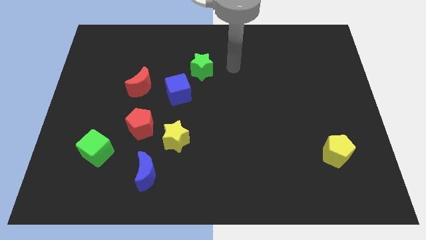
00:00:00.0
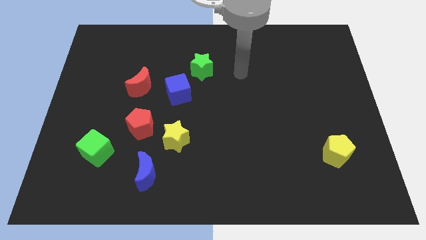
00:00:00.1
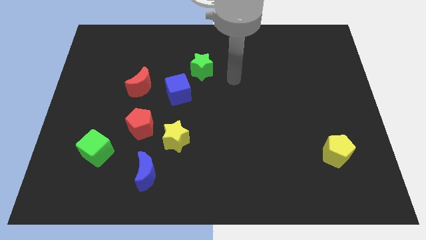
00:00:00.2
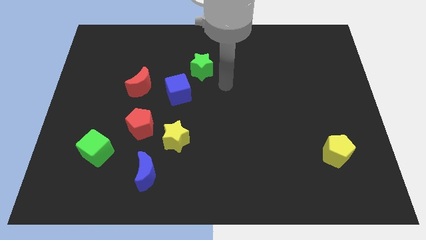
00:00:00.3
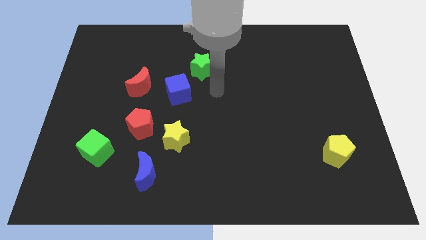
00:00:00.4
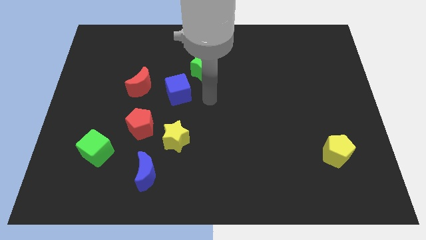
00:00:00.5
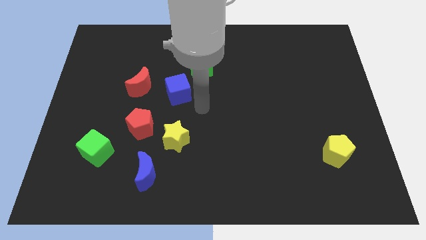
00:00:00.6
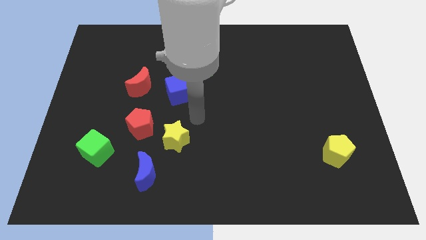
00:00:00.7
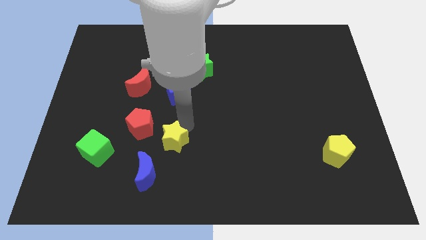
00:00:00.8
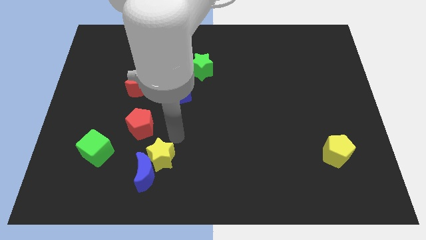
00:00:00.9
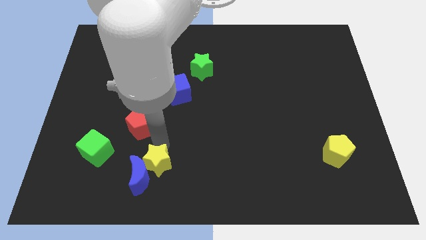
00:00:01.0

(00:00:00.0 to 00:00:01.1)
separate the red pentagon from the yellow star

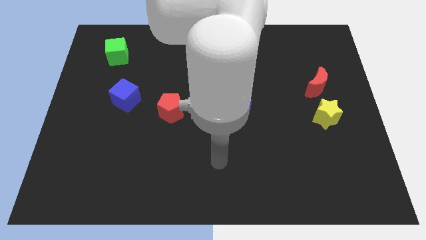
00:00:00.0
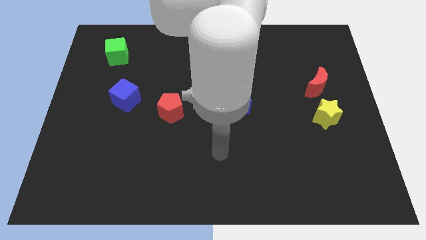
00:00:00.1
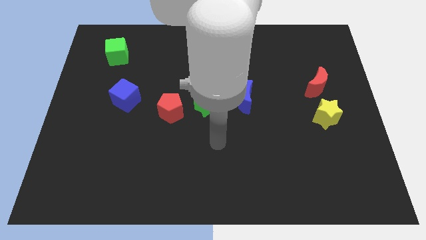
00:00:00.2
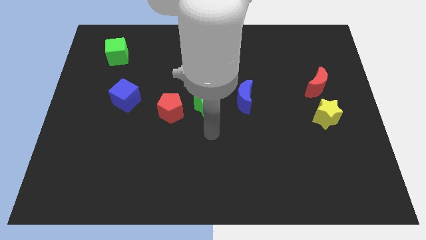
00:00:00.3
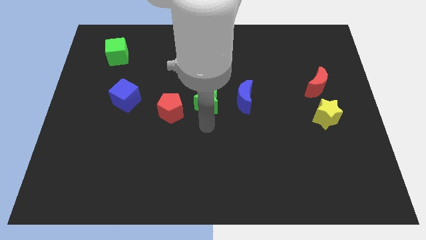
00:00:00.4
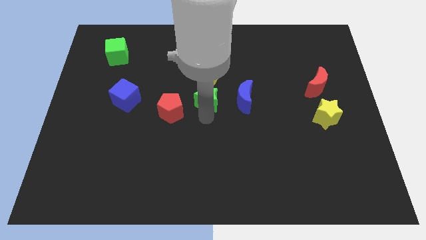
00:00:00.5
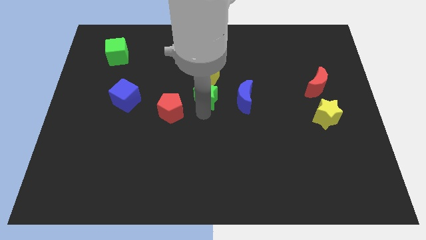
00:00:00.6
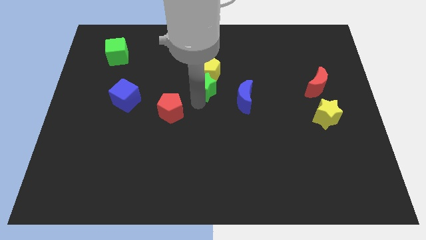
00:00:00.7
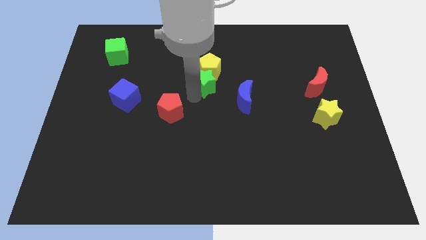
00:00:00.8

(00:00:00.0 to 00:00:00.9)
pull the red pentagon apart from the green star

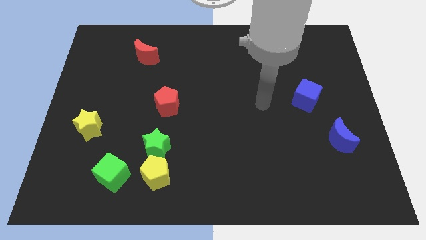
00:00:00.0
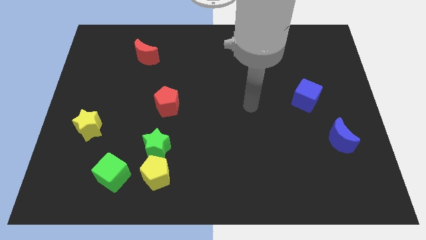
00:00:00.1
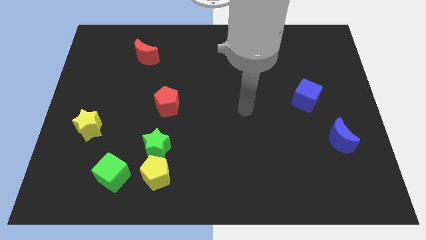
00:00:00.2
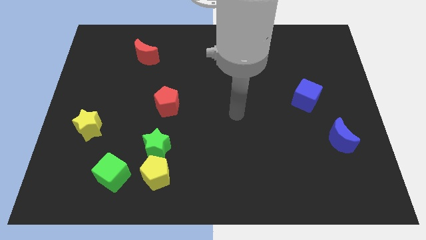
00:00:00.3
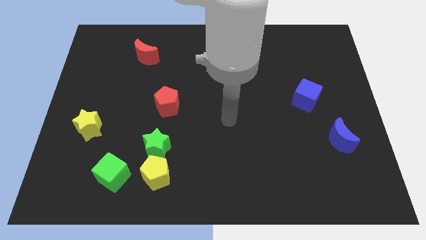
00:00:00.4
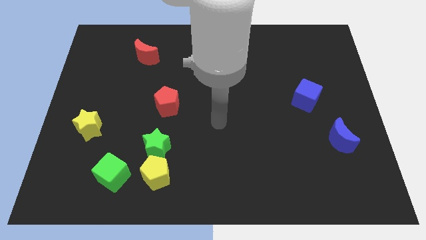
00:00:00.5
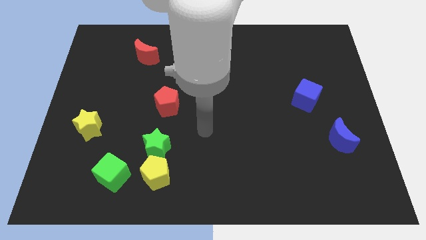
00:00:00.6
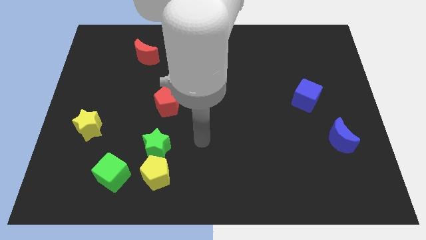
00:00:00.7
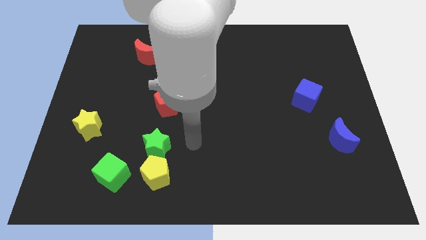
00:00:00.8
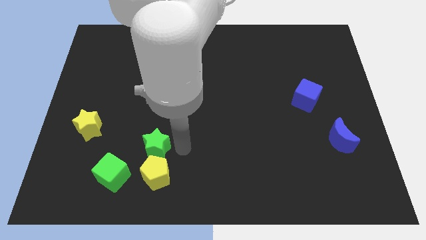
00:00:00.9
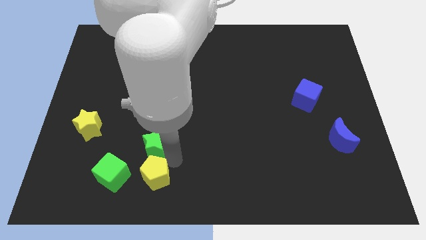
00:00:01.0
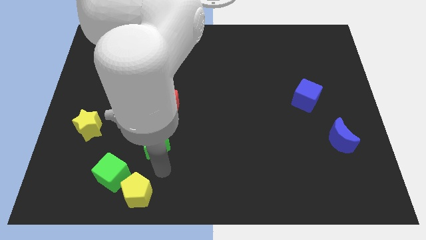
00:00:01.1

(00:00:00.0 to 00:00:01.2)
separate the green star from the yellow pentagon

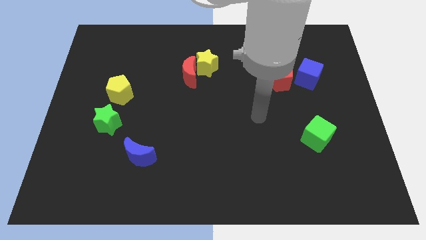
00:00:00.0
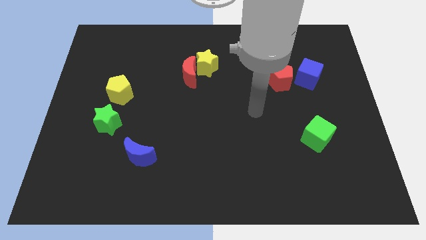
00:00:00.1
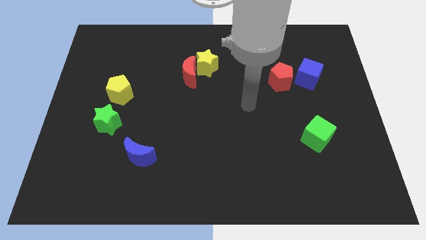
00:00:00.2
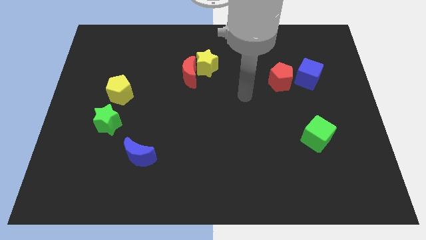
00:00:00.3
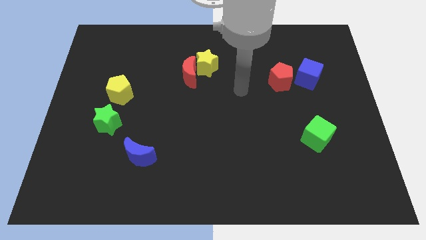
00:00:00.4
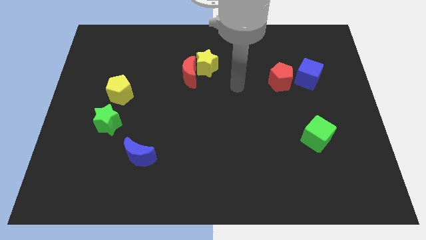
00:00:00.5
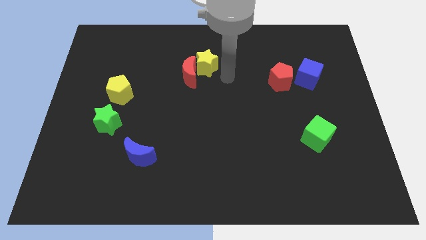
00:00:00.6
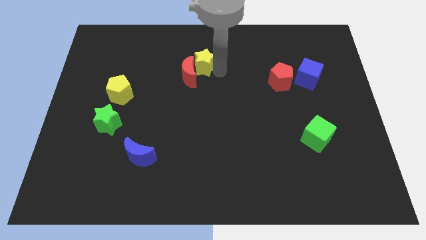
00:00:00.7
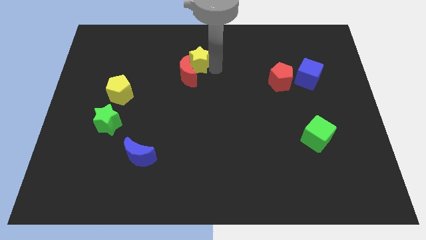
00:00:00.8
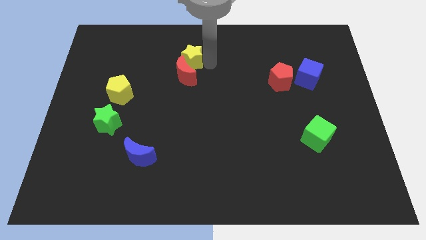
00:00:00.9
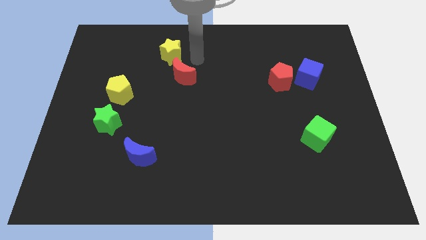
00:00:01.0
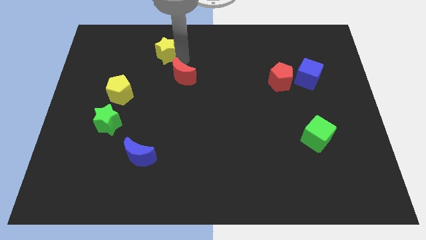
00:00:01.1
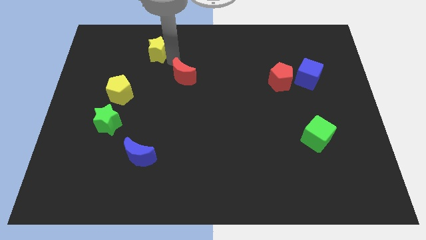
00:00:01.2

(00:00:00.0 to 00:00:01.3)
separate the red moon from the yellow star

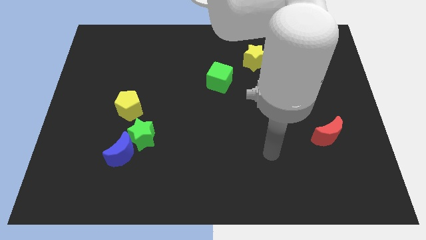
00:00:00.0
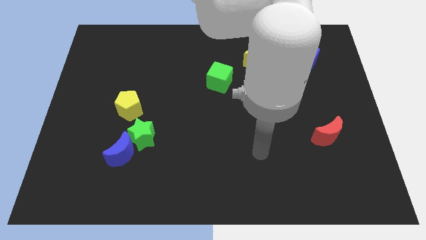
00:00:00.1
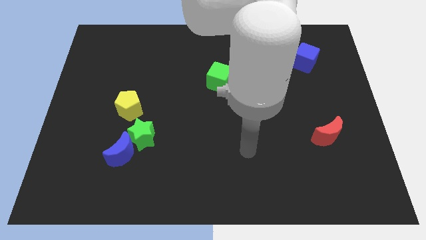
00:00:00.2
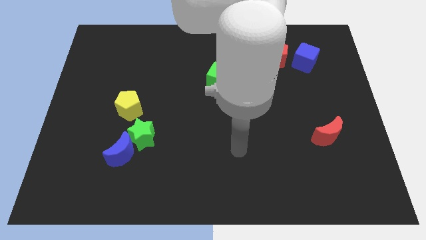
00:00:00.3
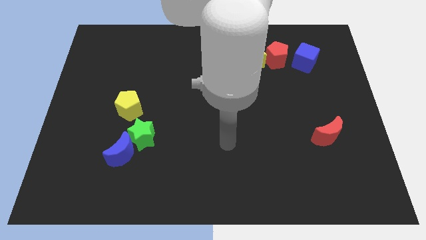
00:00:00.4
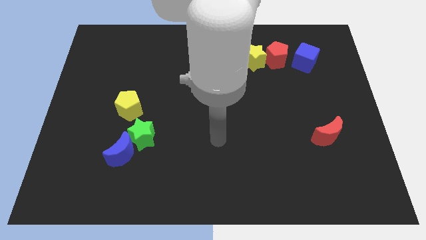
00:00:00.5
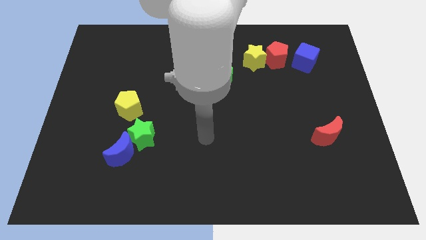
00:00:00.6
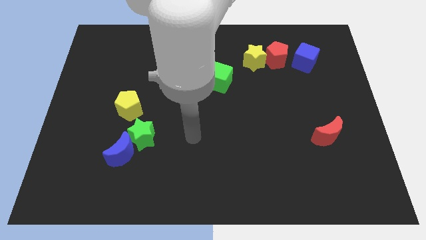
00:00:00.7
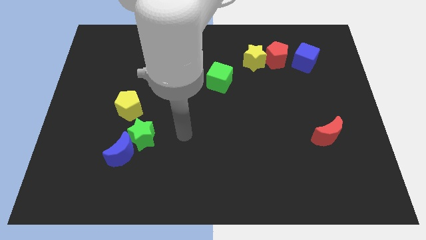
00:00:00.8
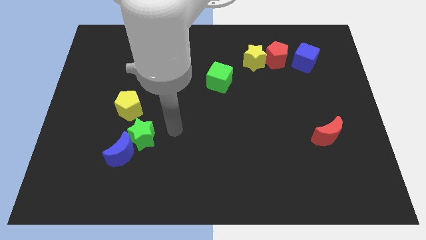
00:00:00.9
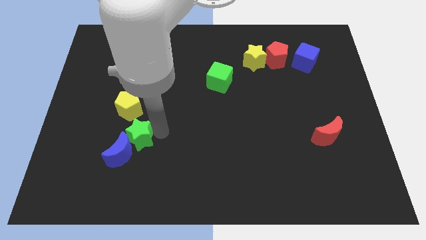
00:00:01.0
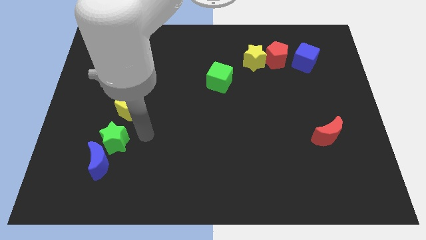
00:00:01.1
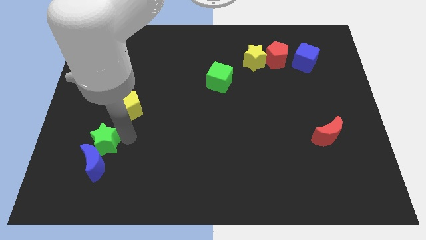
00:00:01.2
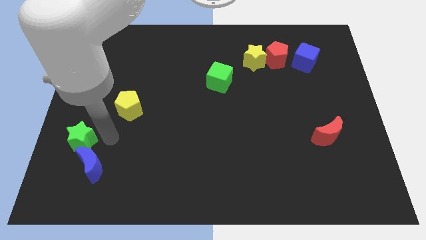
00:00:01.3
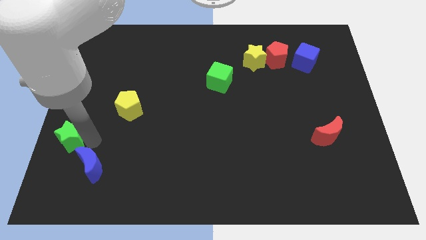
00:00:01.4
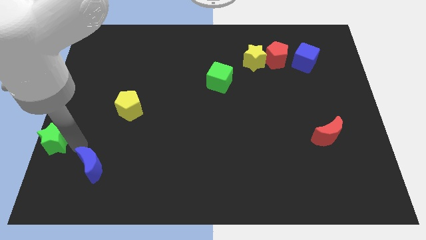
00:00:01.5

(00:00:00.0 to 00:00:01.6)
move the blue moon away from the green star

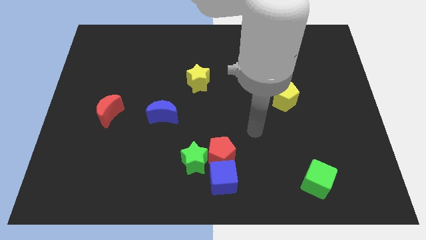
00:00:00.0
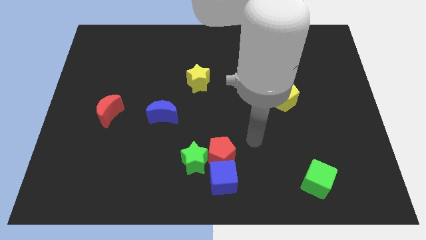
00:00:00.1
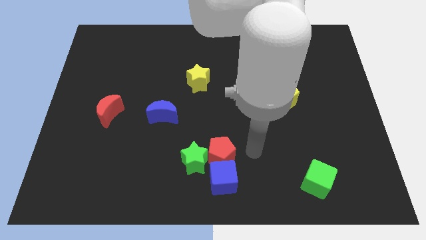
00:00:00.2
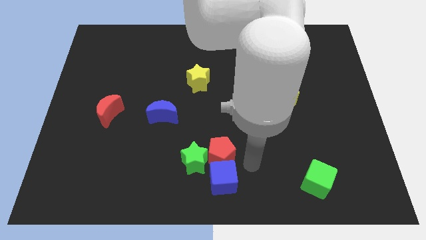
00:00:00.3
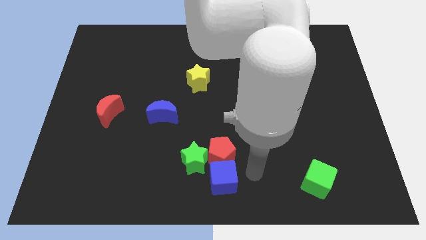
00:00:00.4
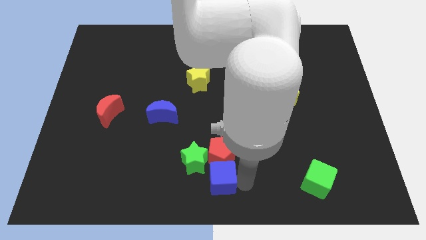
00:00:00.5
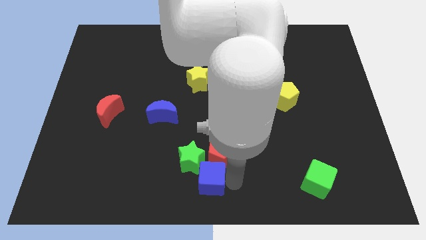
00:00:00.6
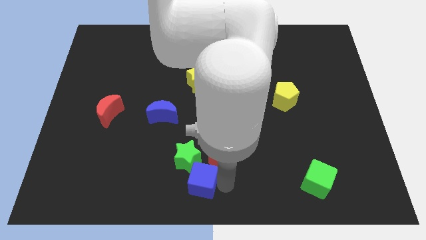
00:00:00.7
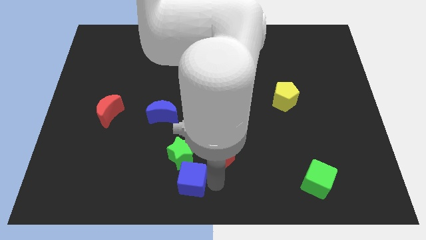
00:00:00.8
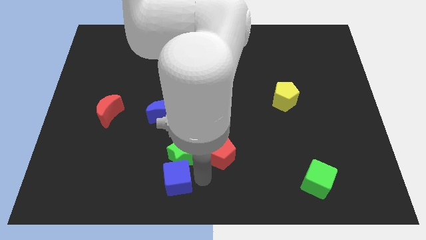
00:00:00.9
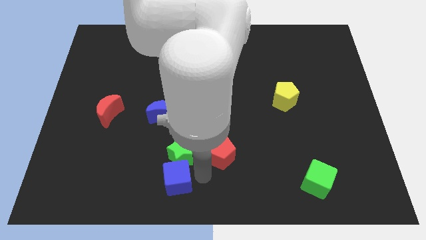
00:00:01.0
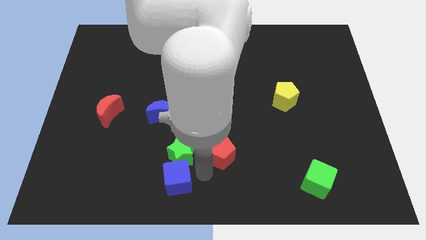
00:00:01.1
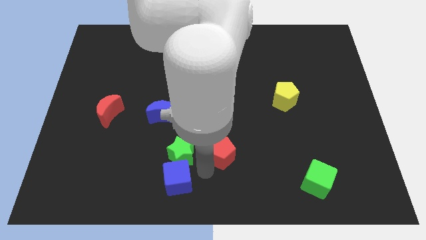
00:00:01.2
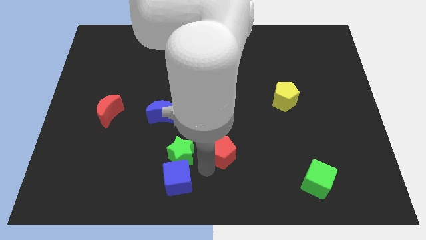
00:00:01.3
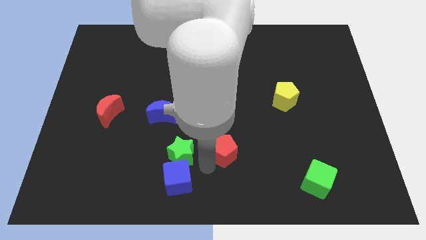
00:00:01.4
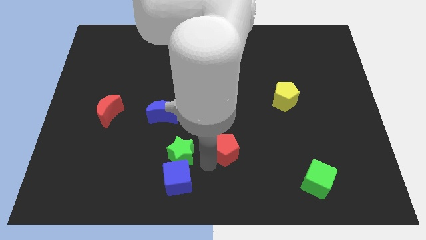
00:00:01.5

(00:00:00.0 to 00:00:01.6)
separate the red pentagon from the green star and blue cube

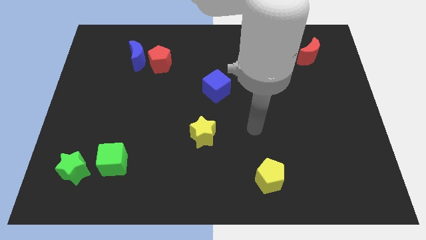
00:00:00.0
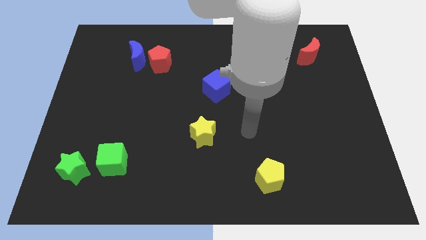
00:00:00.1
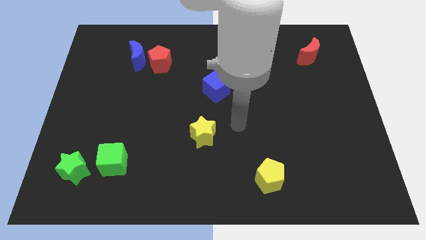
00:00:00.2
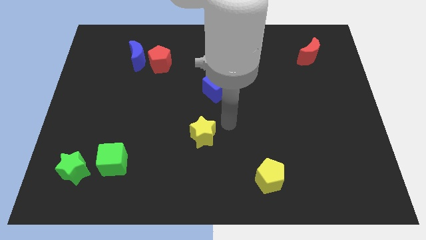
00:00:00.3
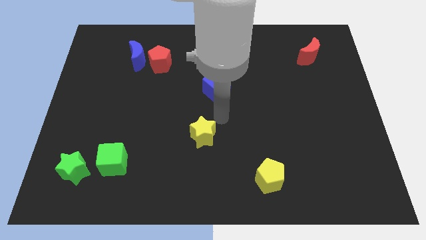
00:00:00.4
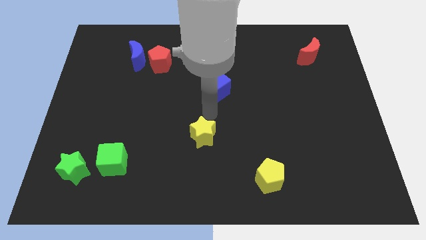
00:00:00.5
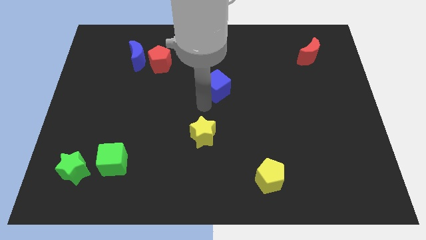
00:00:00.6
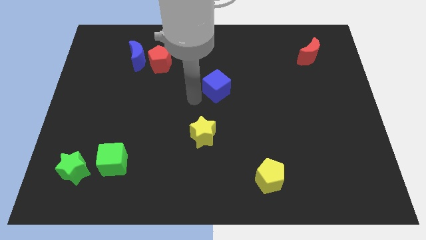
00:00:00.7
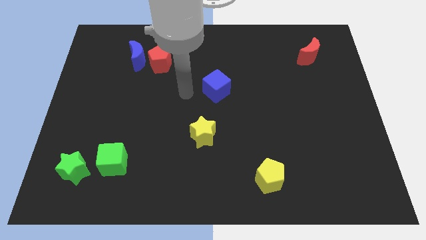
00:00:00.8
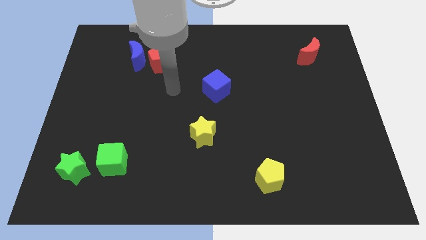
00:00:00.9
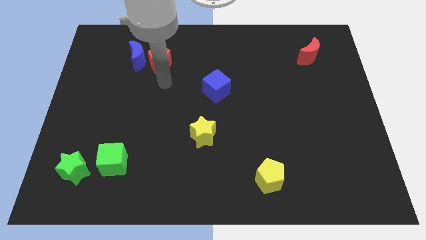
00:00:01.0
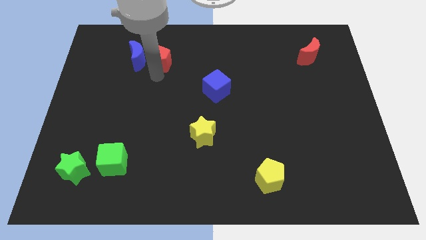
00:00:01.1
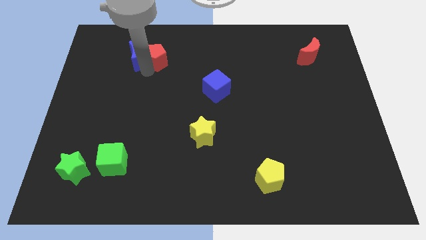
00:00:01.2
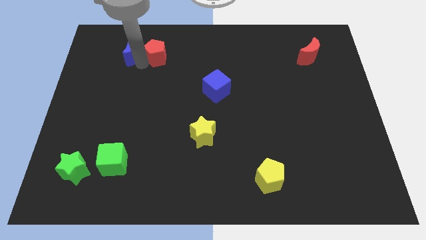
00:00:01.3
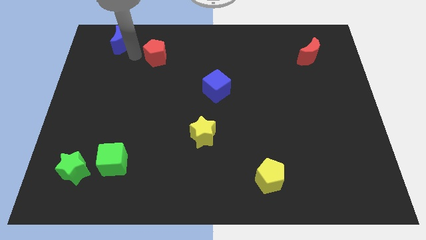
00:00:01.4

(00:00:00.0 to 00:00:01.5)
separate the red pentagon from the blue moon
